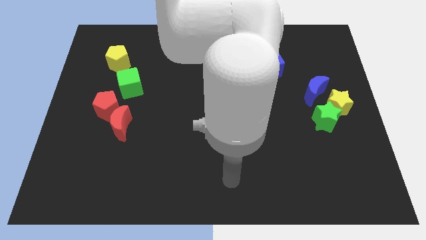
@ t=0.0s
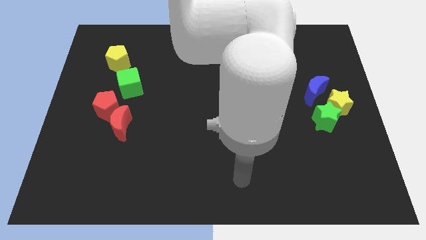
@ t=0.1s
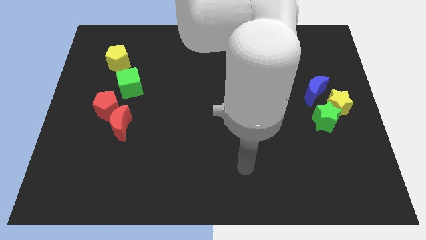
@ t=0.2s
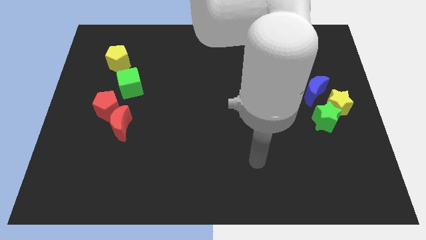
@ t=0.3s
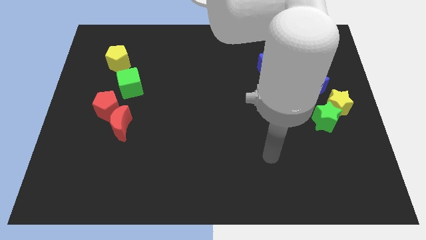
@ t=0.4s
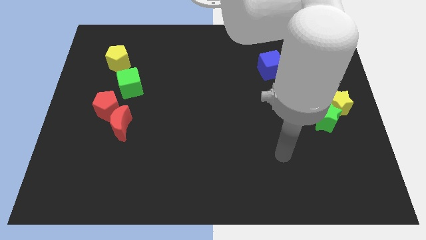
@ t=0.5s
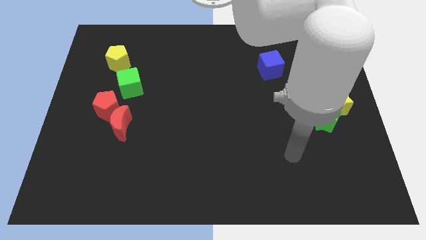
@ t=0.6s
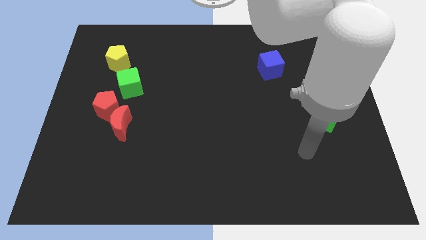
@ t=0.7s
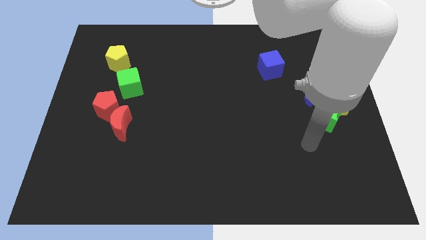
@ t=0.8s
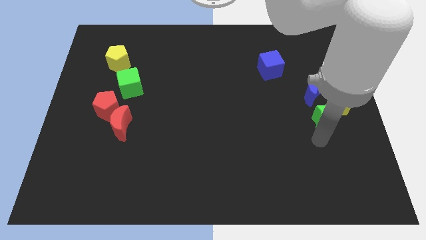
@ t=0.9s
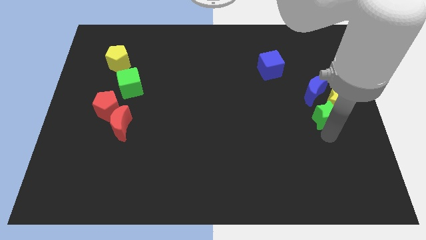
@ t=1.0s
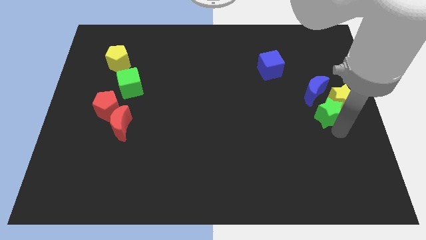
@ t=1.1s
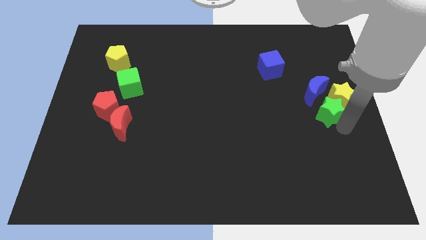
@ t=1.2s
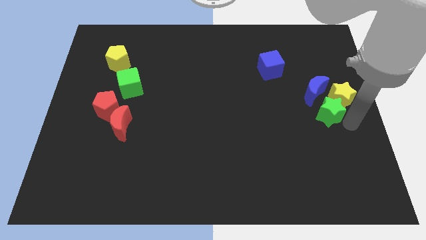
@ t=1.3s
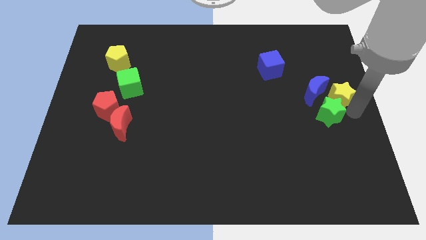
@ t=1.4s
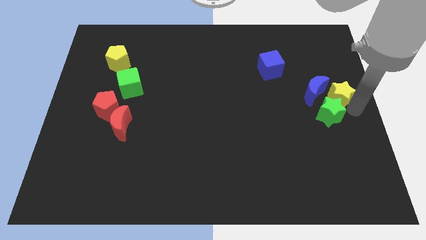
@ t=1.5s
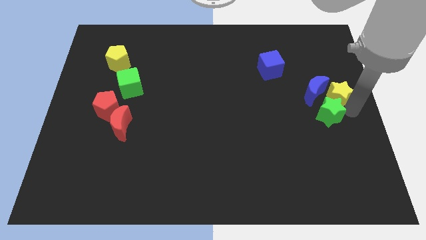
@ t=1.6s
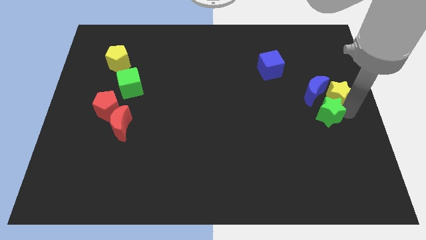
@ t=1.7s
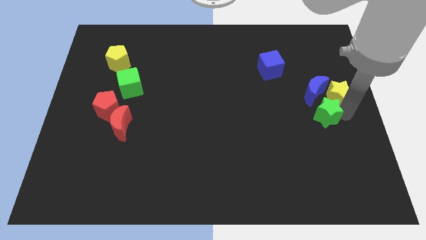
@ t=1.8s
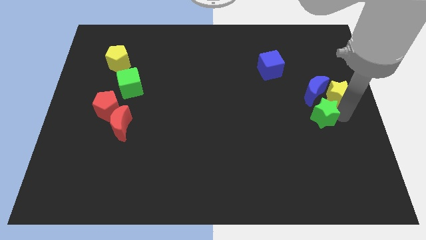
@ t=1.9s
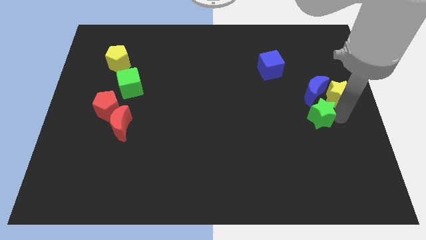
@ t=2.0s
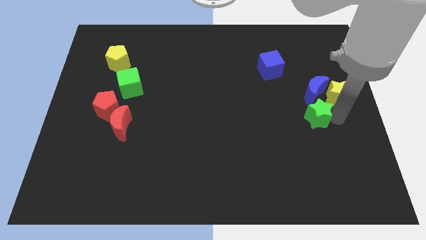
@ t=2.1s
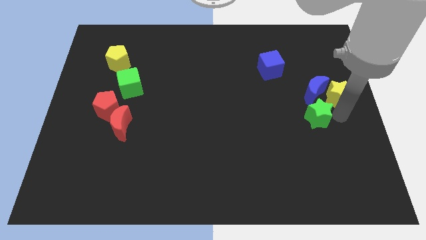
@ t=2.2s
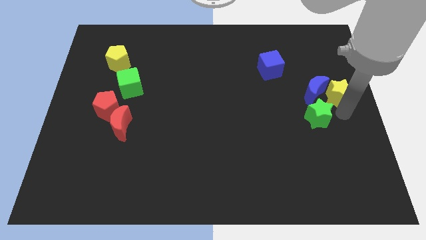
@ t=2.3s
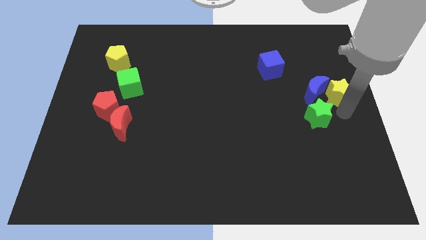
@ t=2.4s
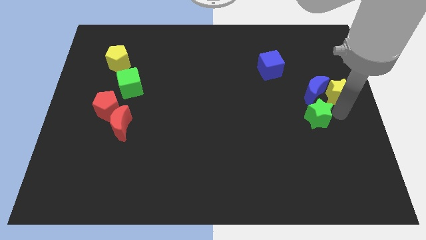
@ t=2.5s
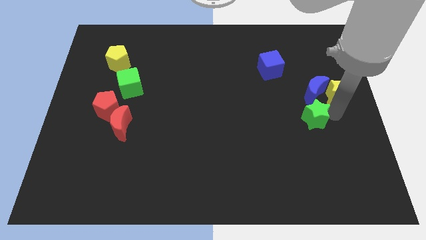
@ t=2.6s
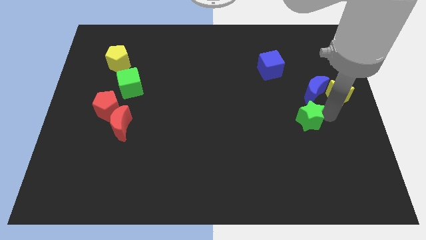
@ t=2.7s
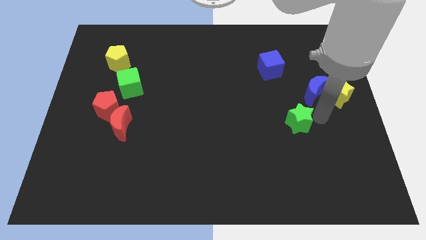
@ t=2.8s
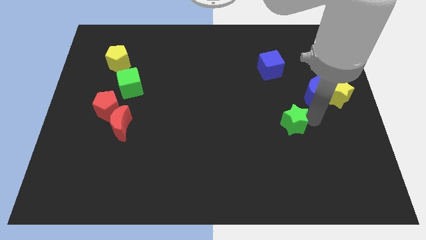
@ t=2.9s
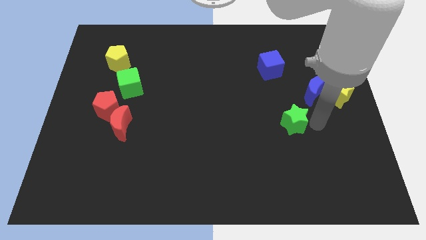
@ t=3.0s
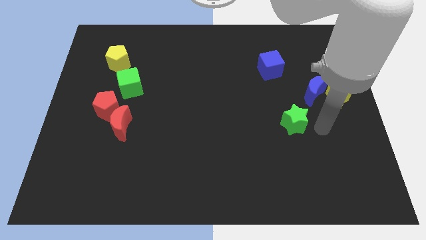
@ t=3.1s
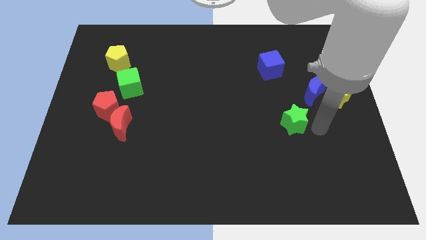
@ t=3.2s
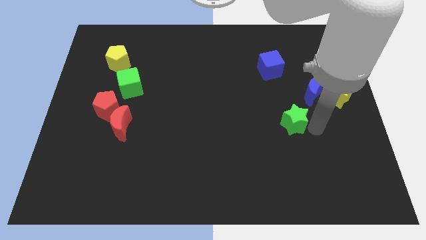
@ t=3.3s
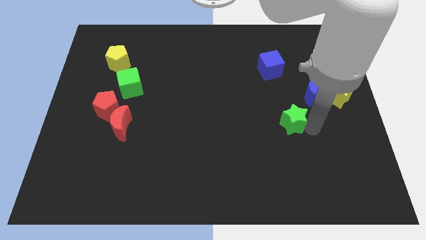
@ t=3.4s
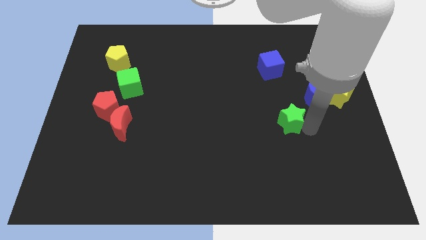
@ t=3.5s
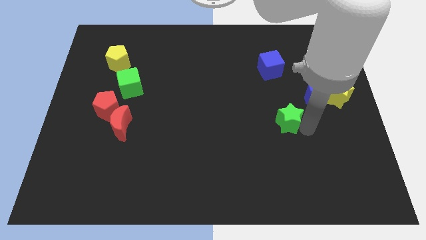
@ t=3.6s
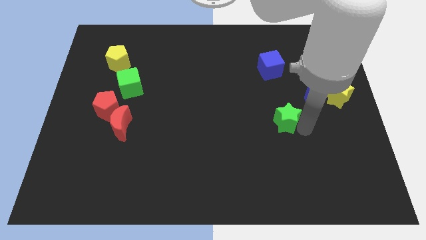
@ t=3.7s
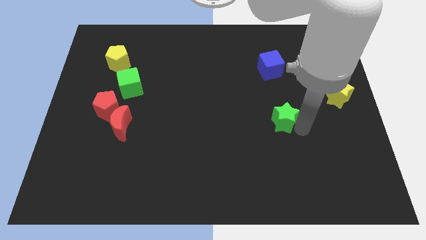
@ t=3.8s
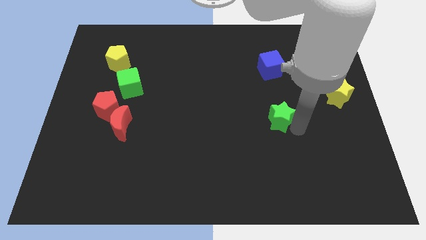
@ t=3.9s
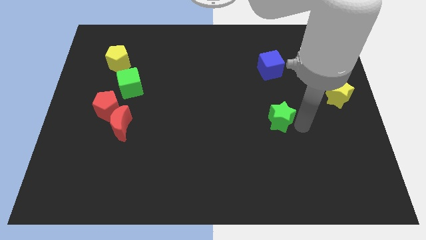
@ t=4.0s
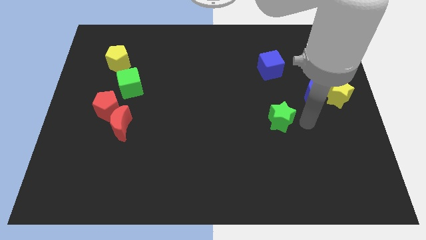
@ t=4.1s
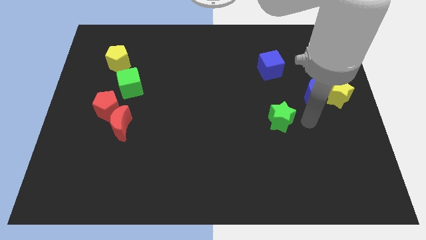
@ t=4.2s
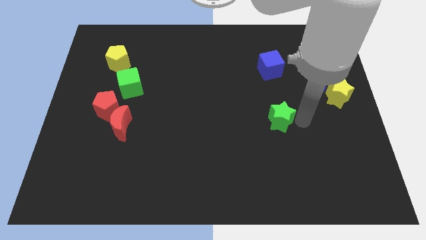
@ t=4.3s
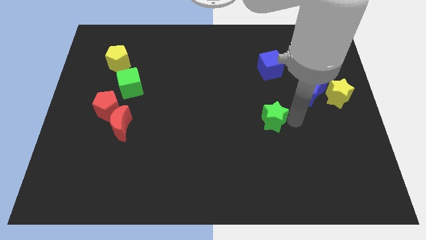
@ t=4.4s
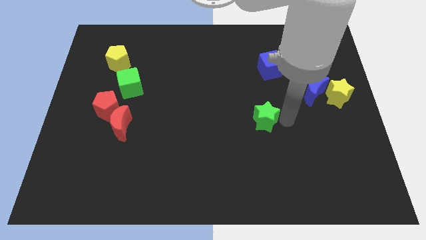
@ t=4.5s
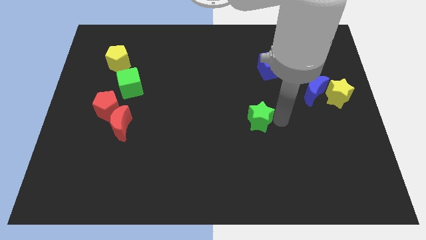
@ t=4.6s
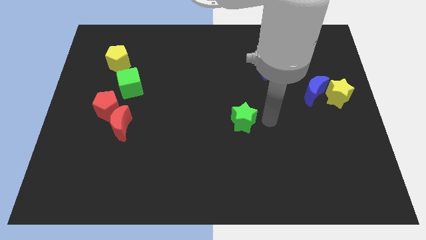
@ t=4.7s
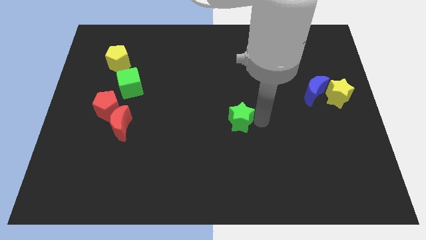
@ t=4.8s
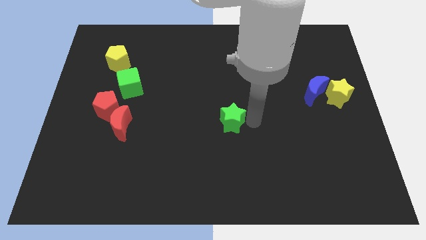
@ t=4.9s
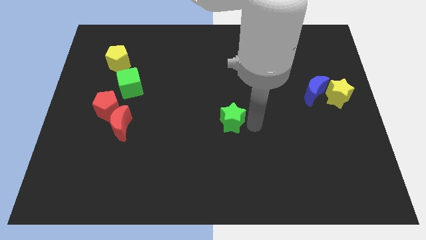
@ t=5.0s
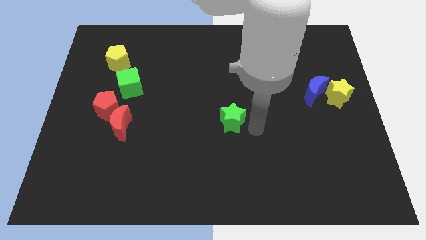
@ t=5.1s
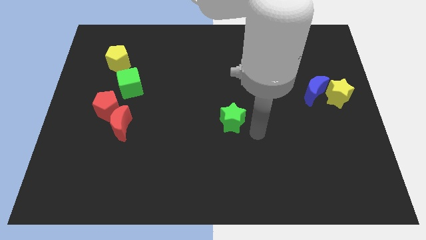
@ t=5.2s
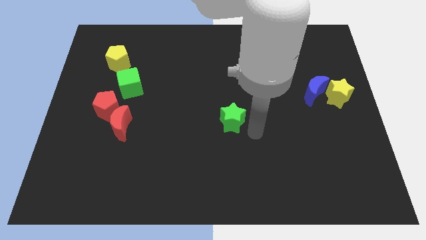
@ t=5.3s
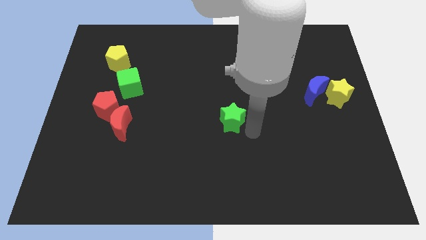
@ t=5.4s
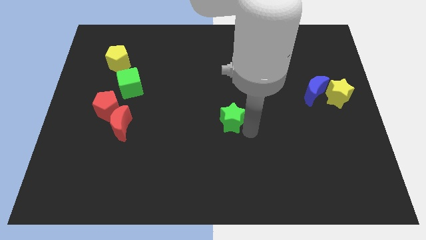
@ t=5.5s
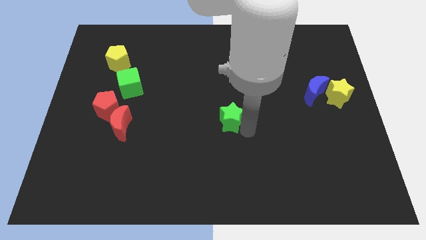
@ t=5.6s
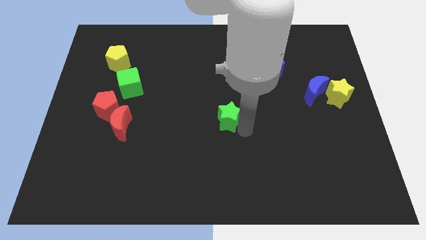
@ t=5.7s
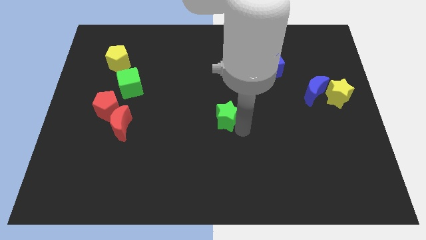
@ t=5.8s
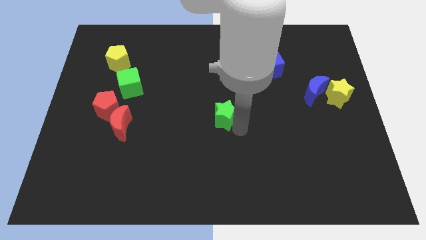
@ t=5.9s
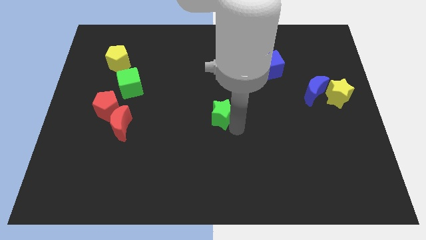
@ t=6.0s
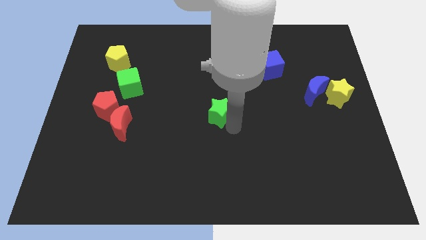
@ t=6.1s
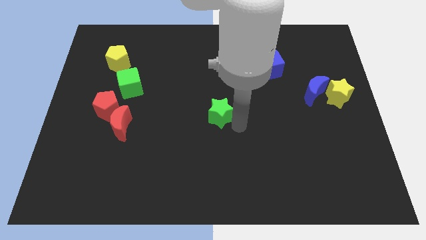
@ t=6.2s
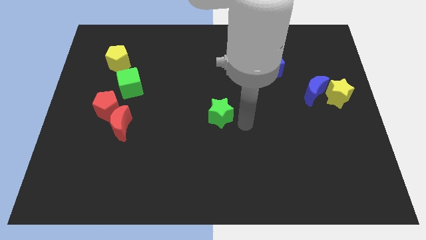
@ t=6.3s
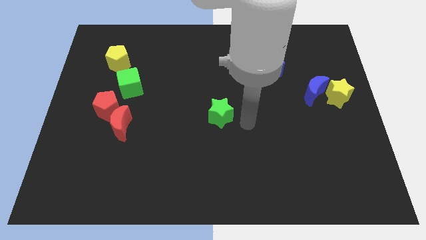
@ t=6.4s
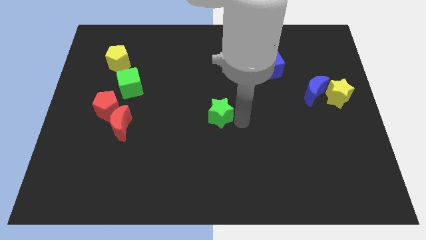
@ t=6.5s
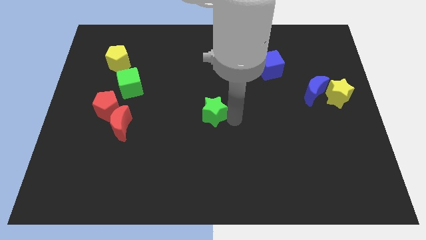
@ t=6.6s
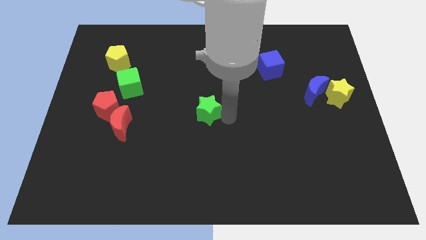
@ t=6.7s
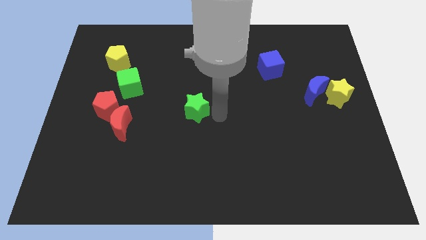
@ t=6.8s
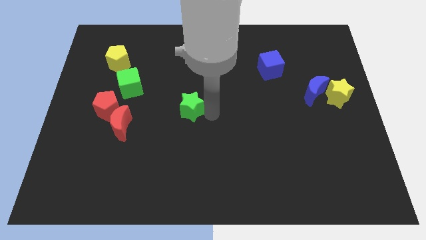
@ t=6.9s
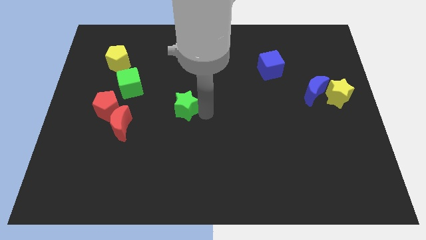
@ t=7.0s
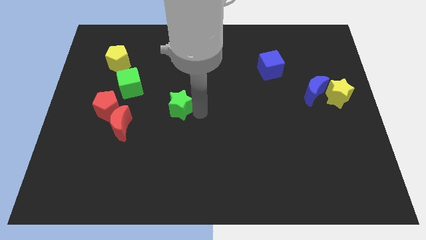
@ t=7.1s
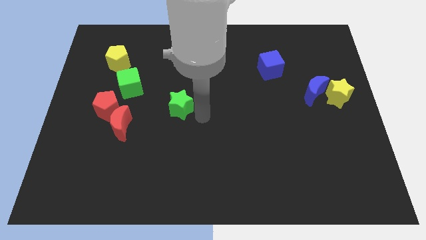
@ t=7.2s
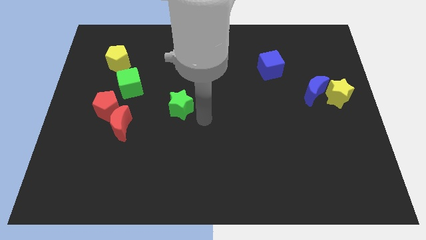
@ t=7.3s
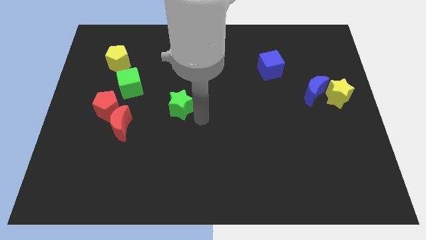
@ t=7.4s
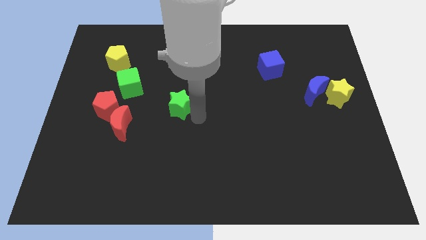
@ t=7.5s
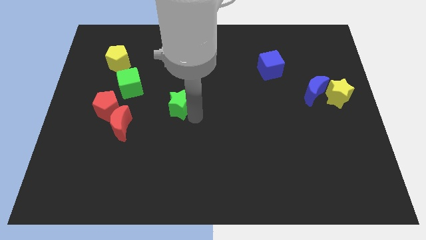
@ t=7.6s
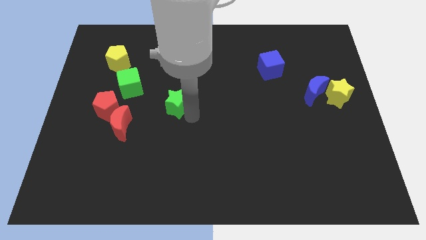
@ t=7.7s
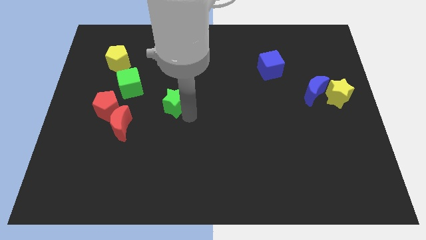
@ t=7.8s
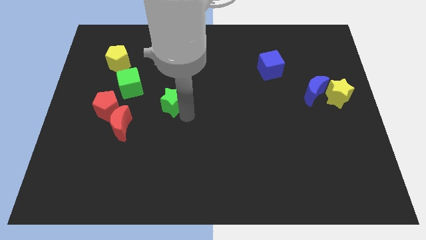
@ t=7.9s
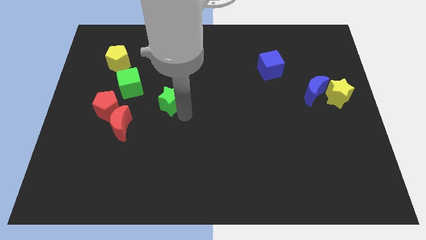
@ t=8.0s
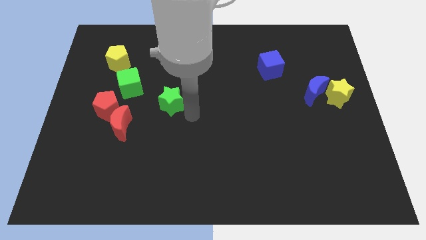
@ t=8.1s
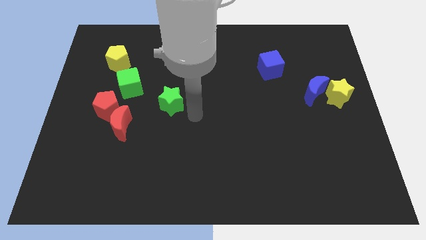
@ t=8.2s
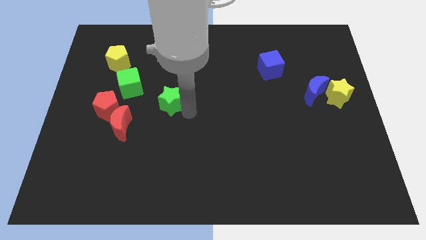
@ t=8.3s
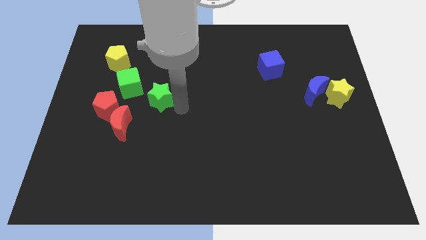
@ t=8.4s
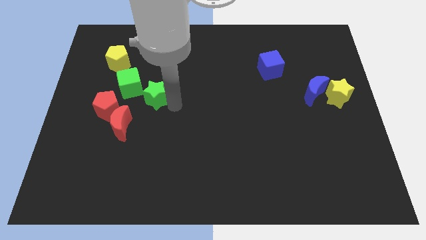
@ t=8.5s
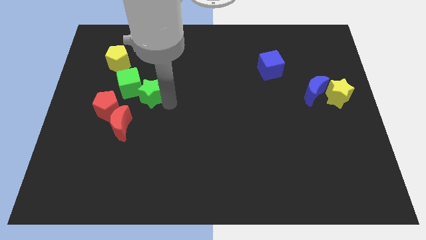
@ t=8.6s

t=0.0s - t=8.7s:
push the green star to the green cube
